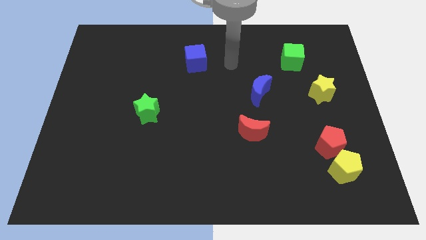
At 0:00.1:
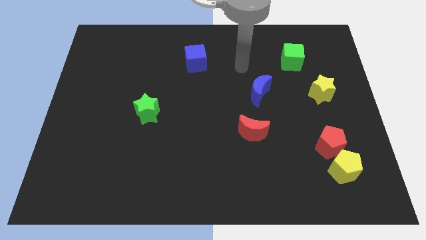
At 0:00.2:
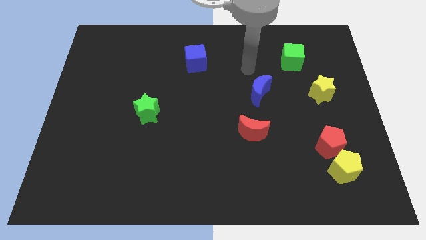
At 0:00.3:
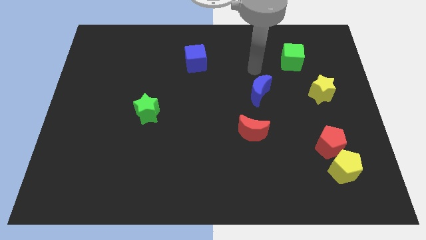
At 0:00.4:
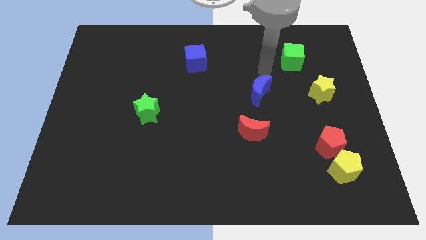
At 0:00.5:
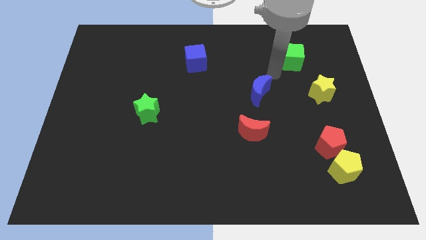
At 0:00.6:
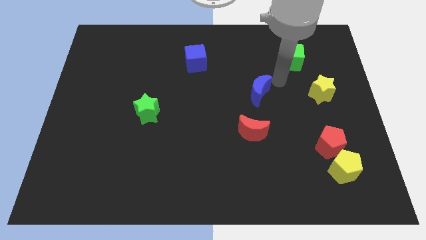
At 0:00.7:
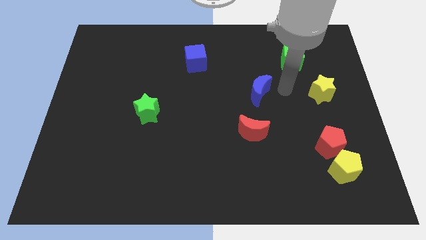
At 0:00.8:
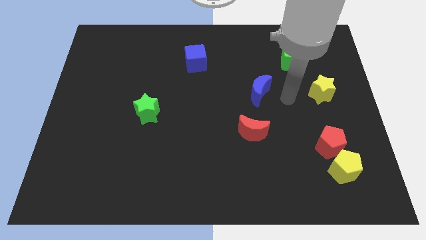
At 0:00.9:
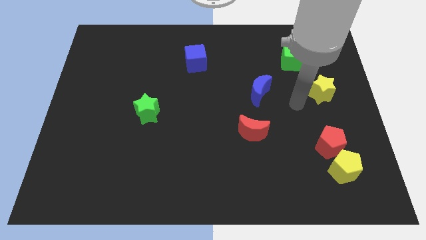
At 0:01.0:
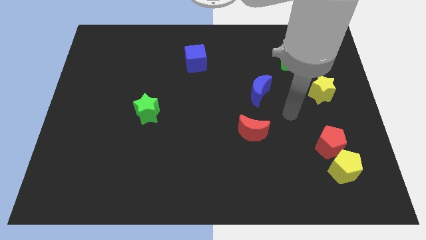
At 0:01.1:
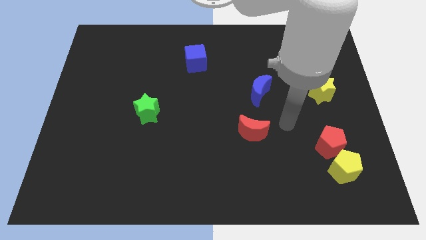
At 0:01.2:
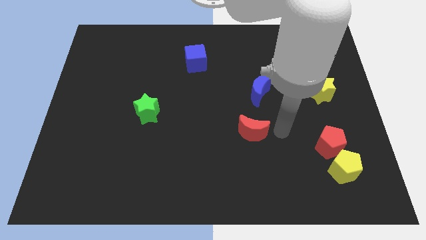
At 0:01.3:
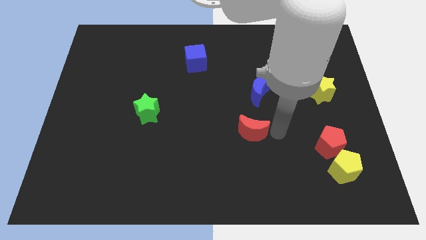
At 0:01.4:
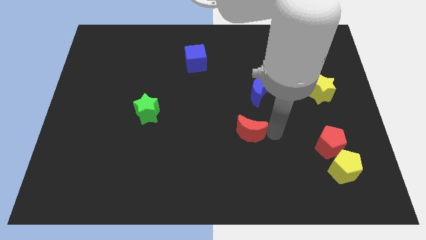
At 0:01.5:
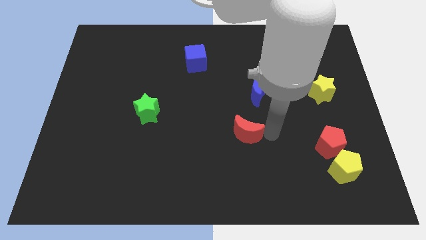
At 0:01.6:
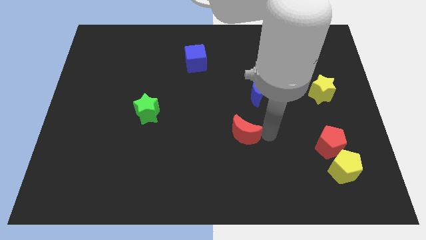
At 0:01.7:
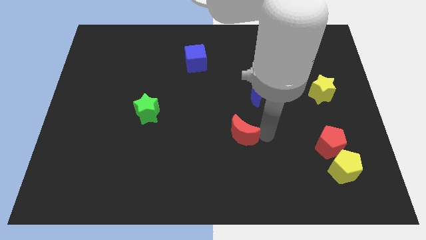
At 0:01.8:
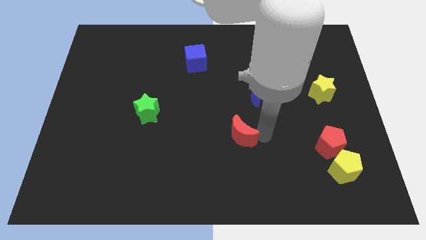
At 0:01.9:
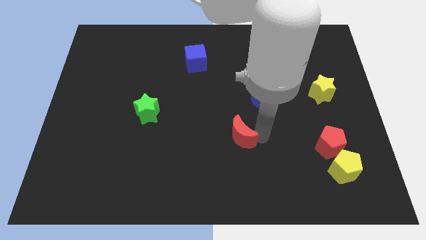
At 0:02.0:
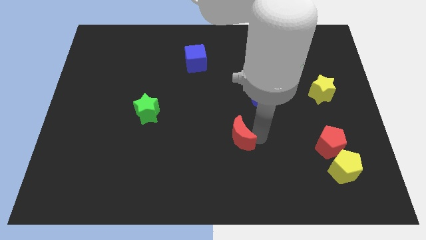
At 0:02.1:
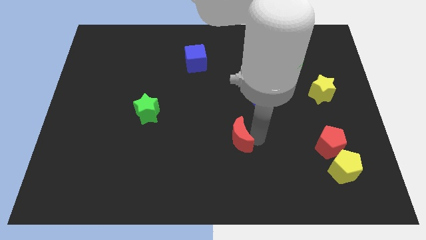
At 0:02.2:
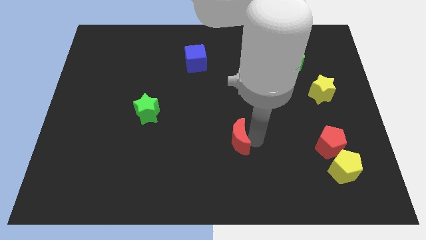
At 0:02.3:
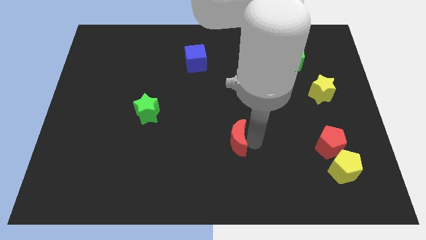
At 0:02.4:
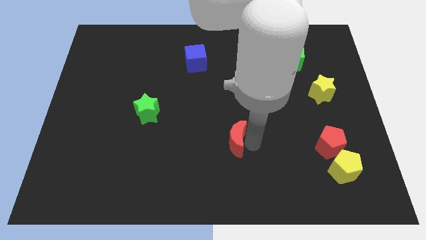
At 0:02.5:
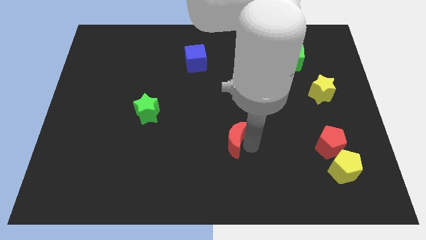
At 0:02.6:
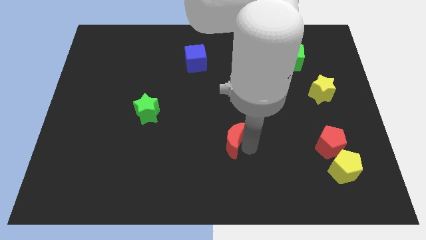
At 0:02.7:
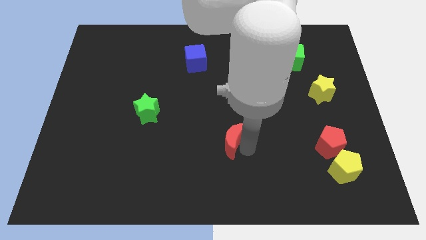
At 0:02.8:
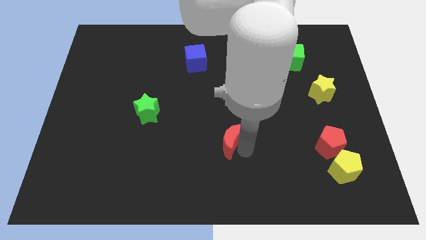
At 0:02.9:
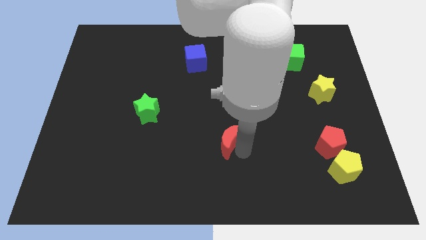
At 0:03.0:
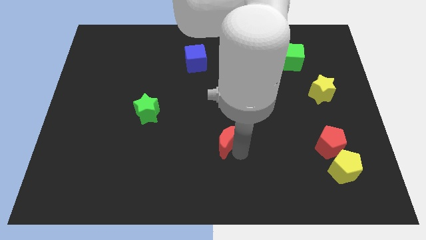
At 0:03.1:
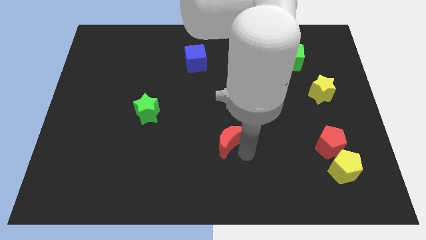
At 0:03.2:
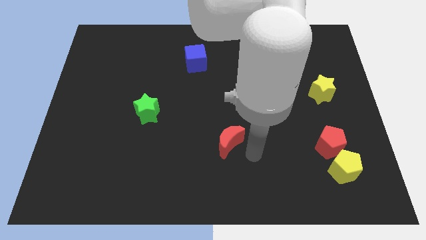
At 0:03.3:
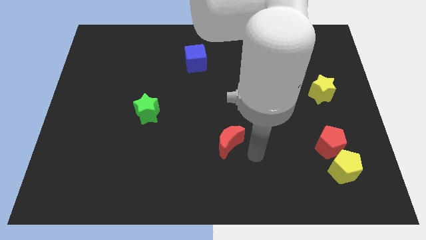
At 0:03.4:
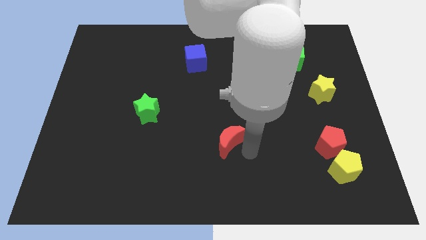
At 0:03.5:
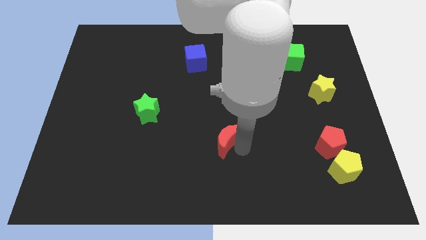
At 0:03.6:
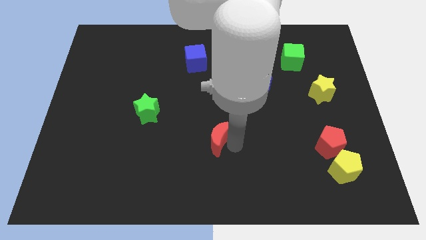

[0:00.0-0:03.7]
slide the red moon to the left a little

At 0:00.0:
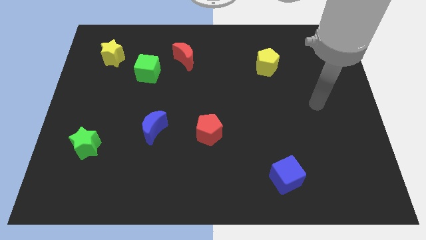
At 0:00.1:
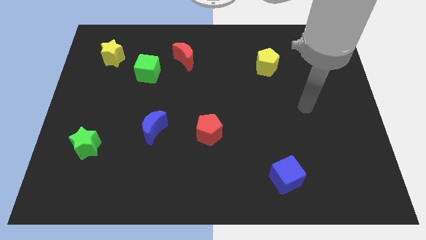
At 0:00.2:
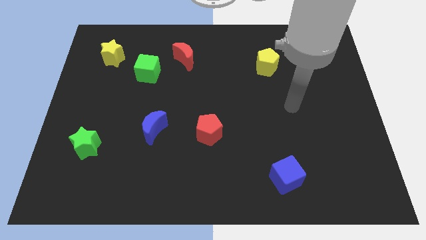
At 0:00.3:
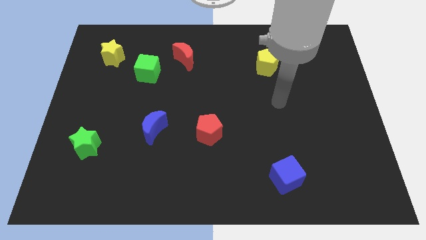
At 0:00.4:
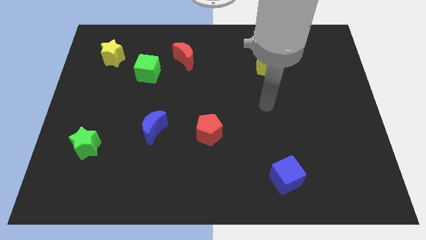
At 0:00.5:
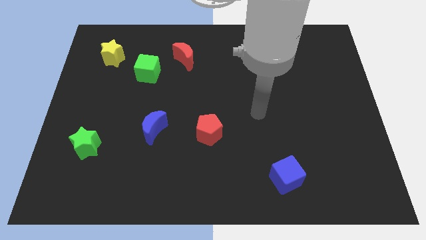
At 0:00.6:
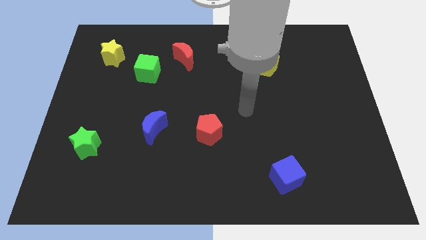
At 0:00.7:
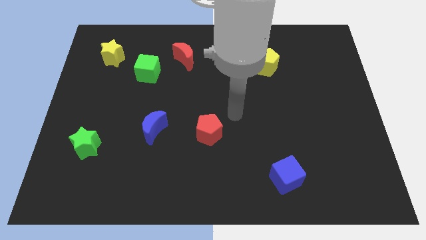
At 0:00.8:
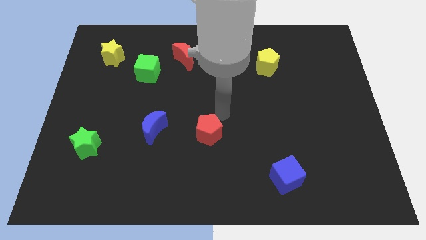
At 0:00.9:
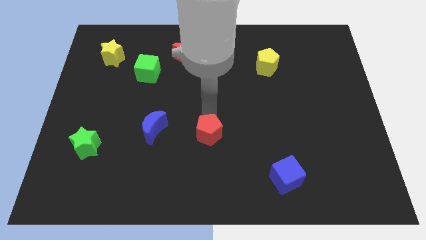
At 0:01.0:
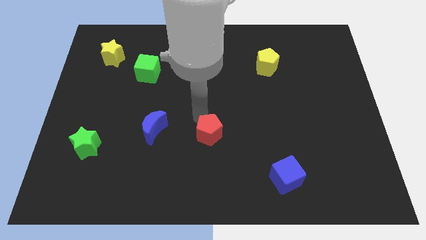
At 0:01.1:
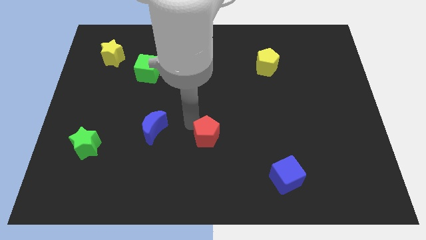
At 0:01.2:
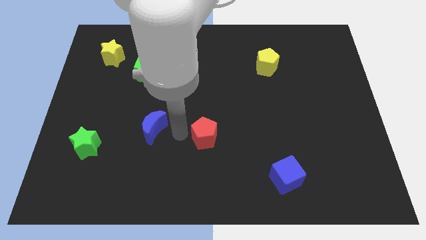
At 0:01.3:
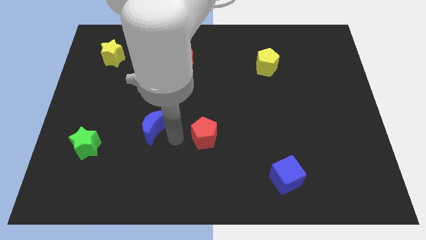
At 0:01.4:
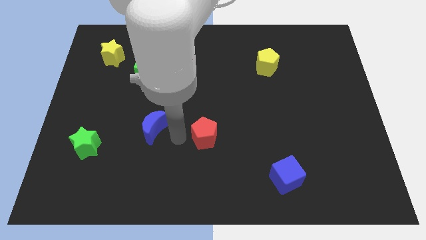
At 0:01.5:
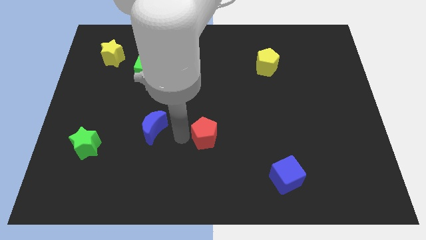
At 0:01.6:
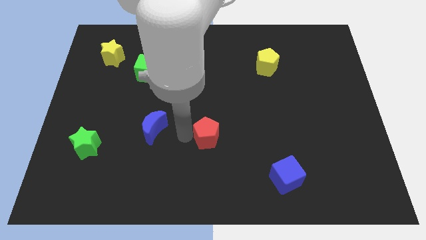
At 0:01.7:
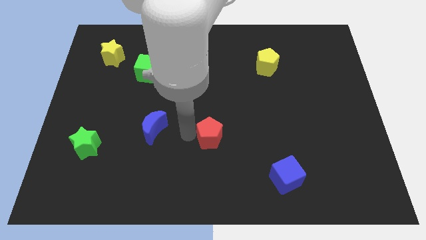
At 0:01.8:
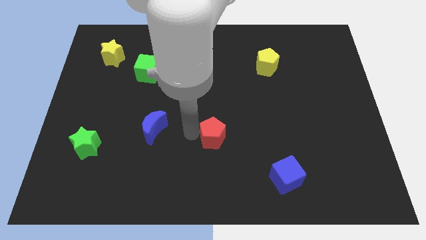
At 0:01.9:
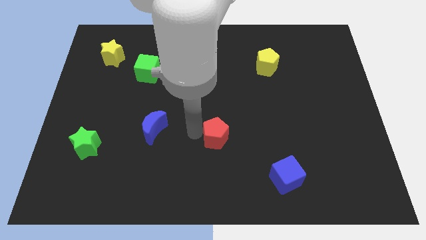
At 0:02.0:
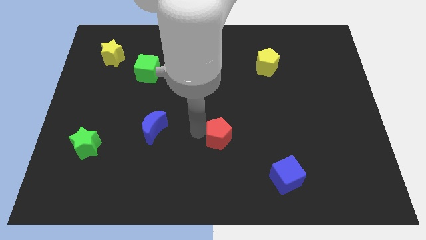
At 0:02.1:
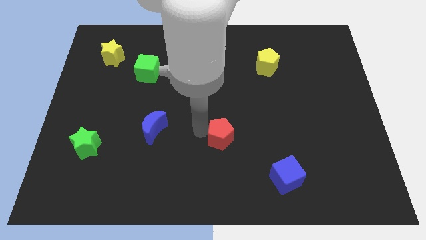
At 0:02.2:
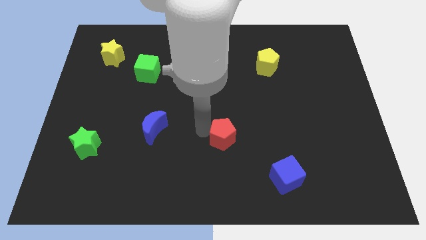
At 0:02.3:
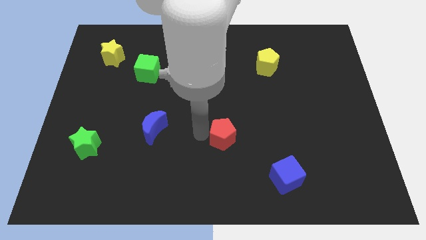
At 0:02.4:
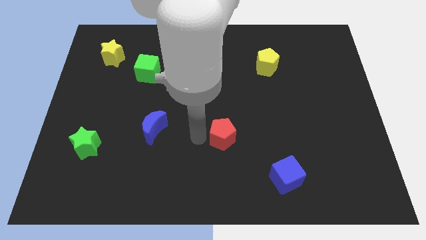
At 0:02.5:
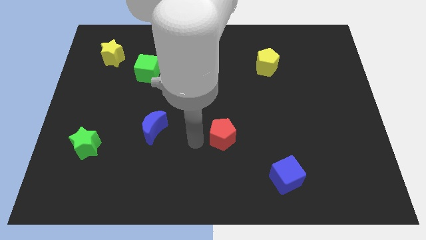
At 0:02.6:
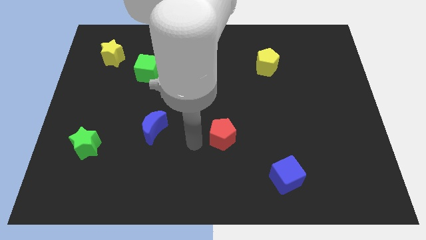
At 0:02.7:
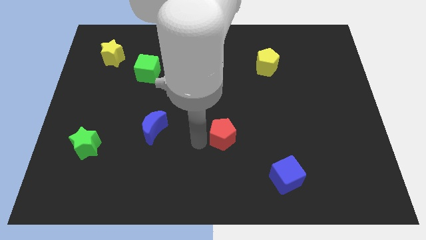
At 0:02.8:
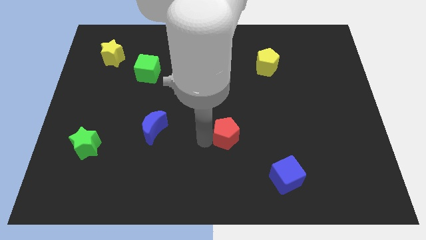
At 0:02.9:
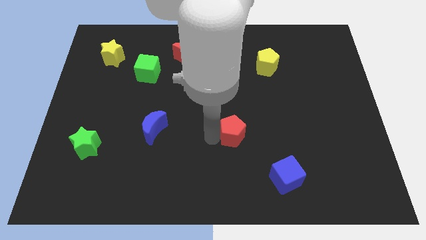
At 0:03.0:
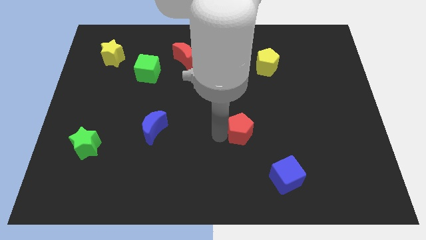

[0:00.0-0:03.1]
push the red pentagon a little bit right

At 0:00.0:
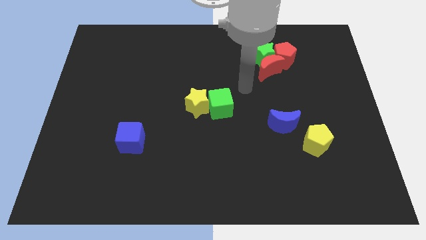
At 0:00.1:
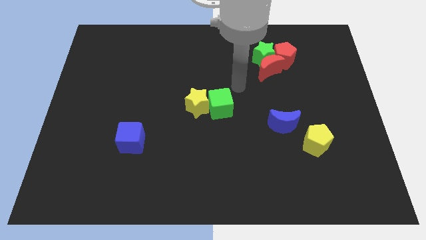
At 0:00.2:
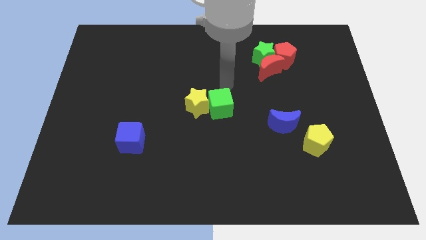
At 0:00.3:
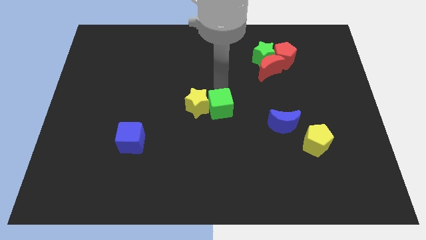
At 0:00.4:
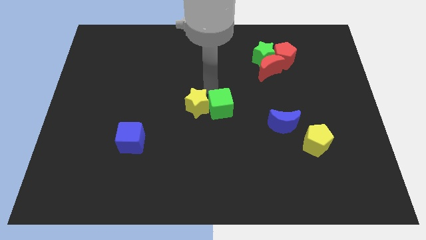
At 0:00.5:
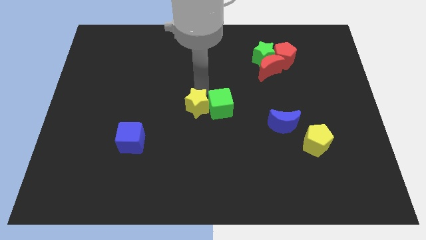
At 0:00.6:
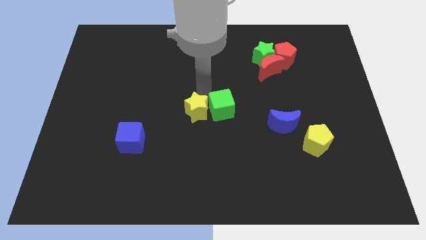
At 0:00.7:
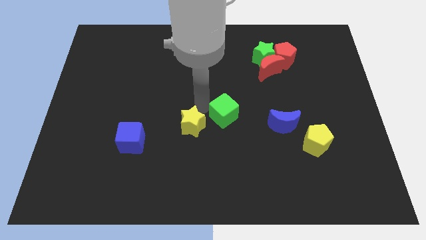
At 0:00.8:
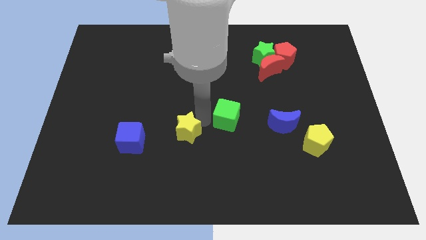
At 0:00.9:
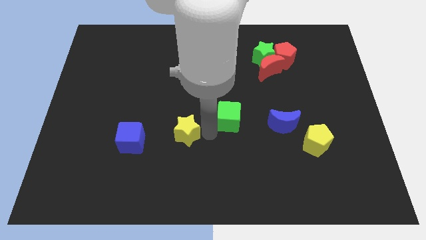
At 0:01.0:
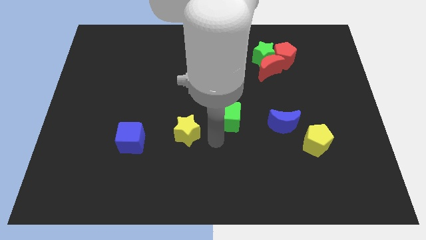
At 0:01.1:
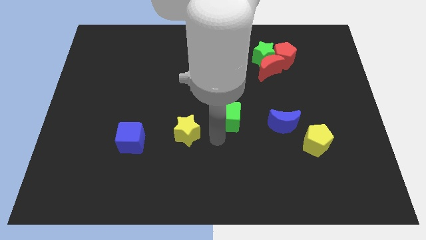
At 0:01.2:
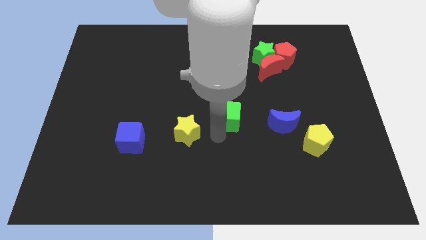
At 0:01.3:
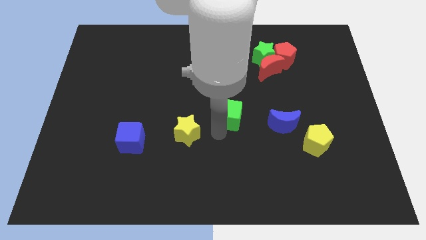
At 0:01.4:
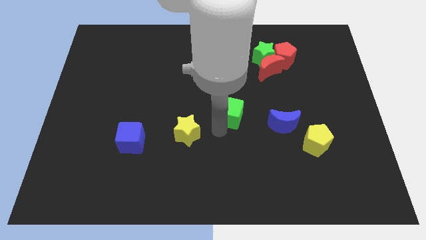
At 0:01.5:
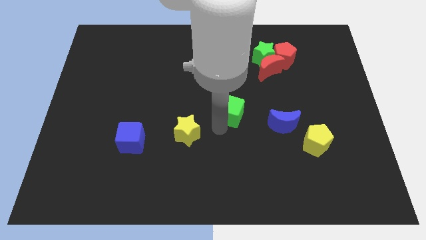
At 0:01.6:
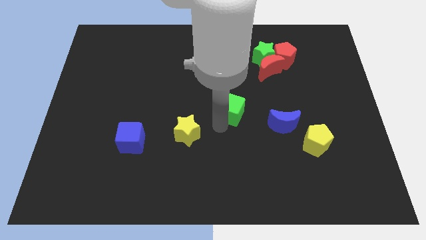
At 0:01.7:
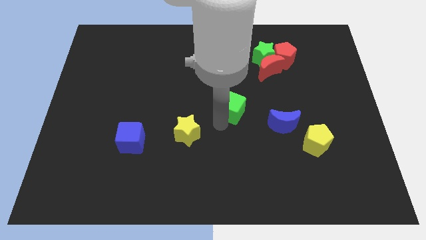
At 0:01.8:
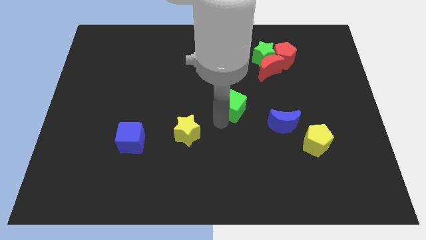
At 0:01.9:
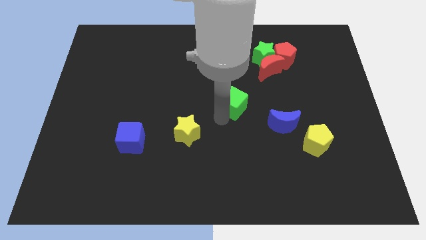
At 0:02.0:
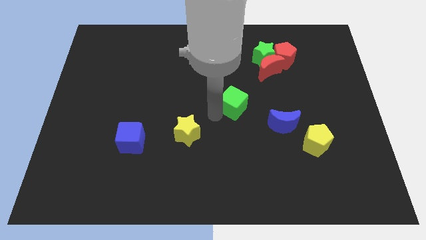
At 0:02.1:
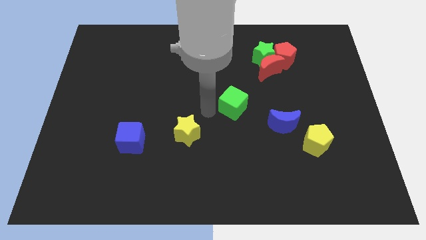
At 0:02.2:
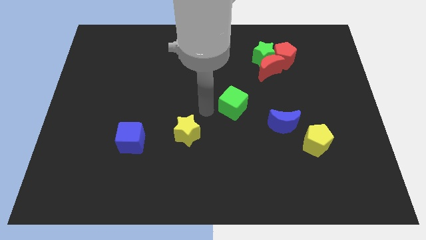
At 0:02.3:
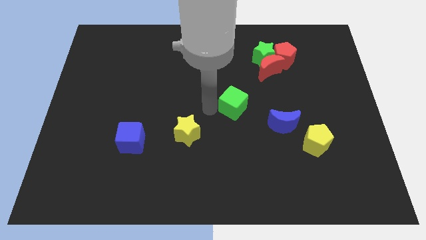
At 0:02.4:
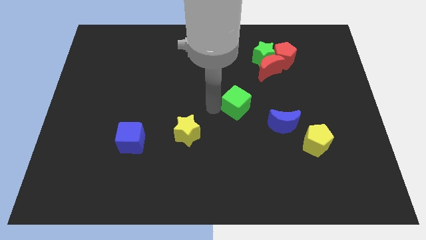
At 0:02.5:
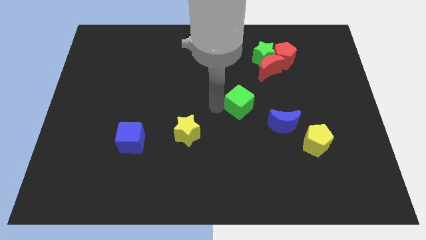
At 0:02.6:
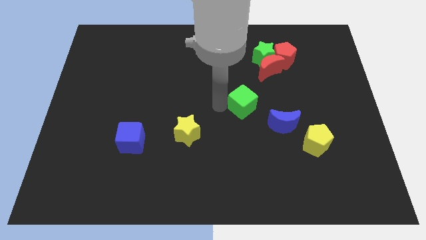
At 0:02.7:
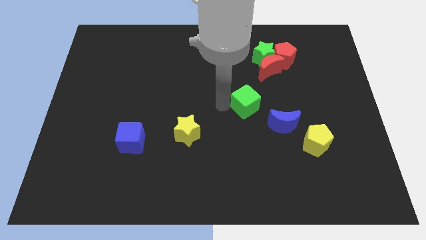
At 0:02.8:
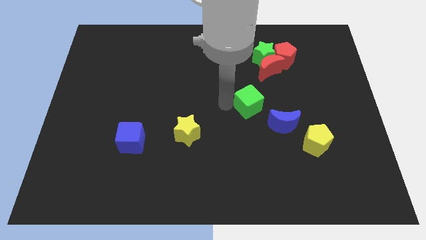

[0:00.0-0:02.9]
push the green cube slightly to the right
